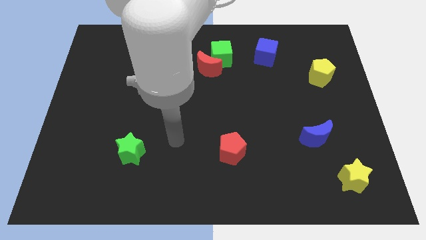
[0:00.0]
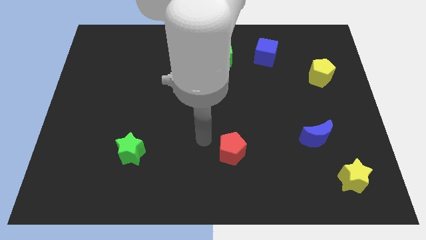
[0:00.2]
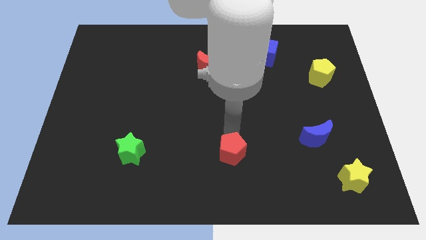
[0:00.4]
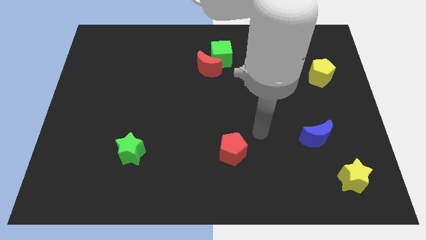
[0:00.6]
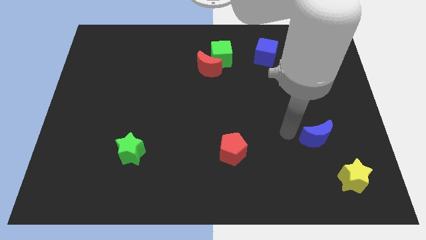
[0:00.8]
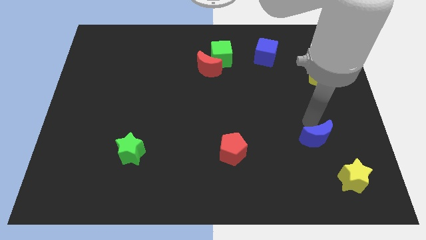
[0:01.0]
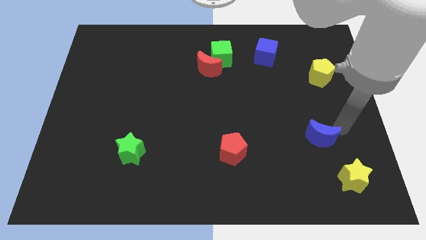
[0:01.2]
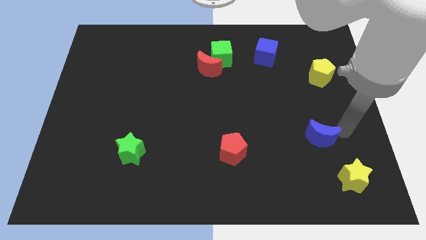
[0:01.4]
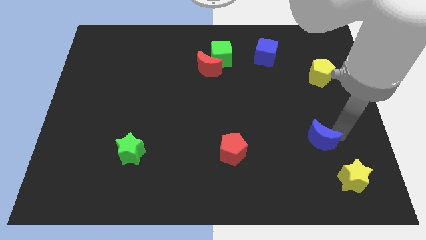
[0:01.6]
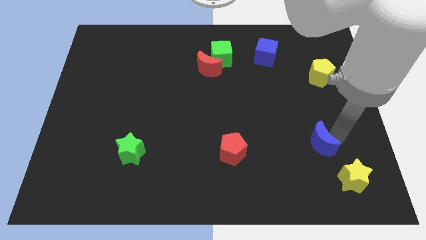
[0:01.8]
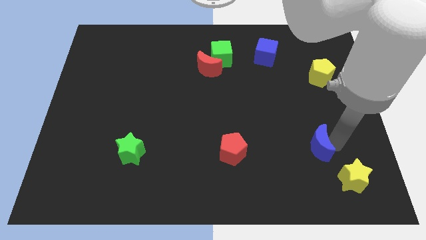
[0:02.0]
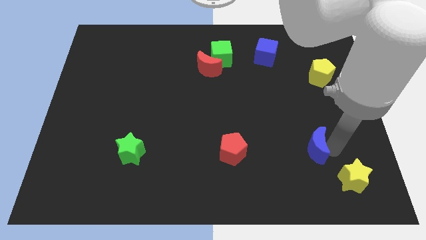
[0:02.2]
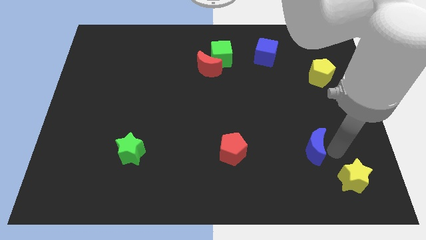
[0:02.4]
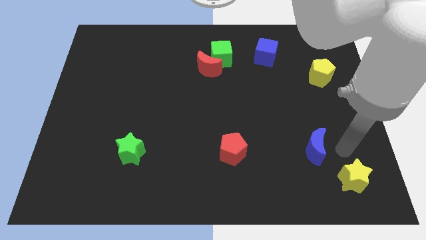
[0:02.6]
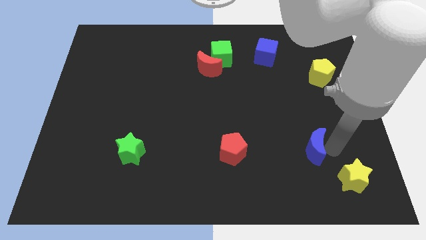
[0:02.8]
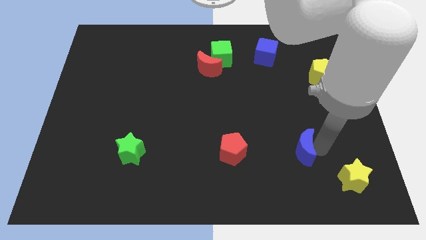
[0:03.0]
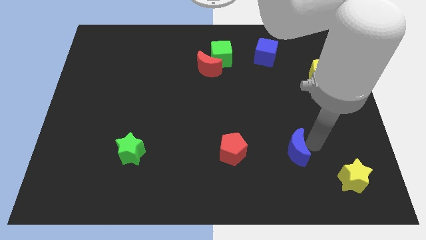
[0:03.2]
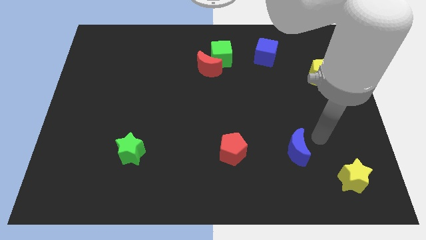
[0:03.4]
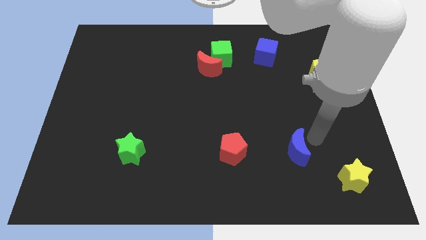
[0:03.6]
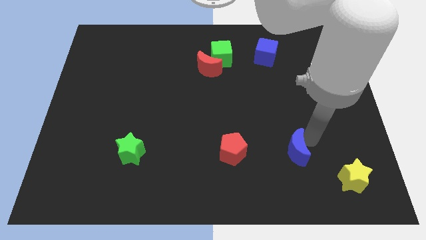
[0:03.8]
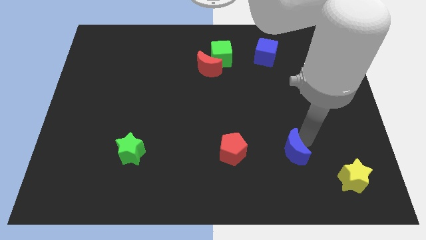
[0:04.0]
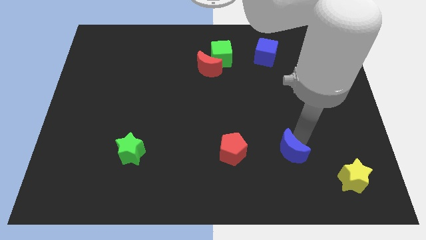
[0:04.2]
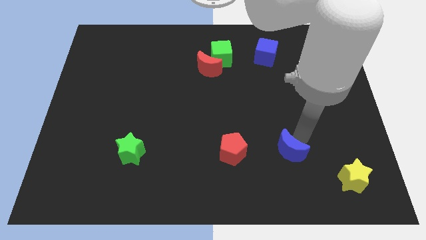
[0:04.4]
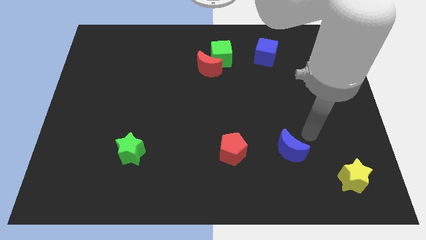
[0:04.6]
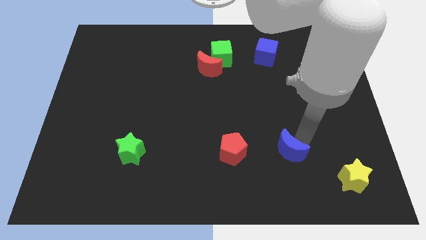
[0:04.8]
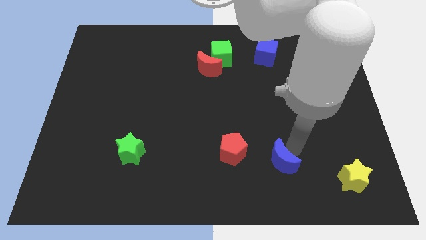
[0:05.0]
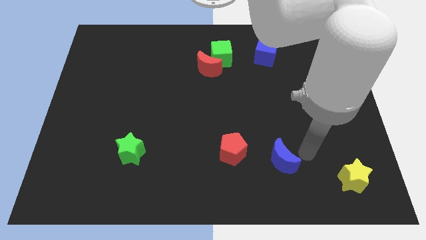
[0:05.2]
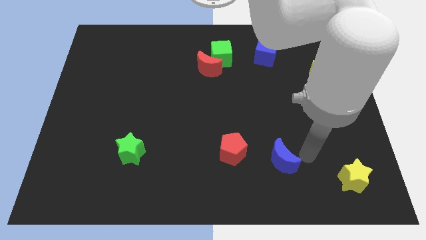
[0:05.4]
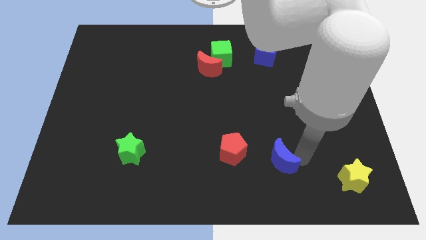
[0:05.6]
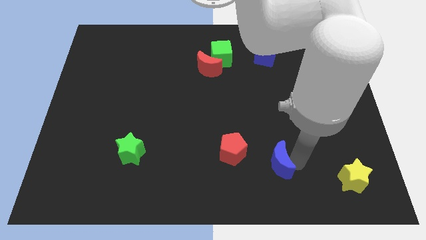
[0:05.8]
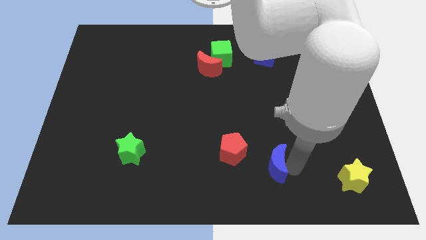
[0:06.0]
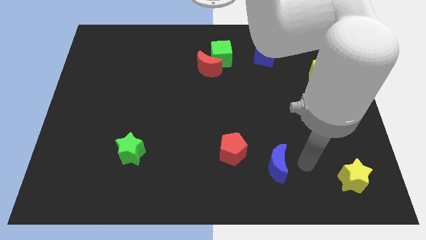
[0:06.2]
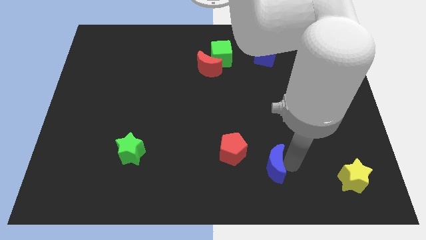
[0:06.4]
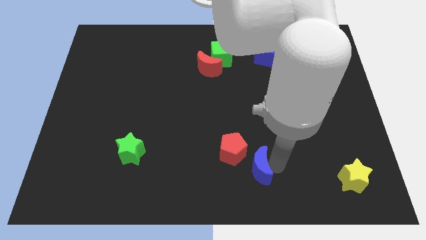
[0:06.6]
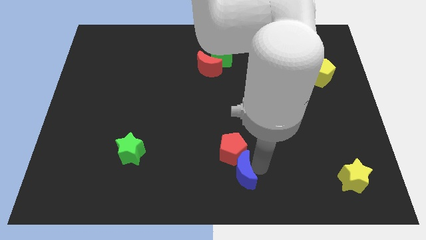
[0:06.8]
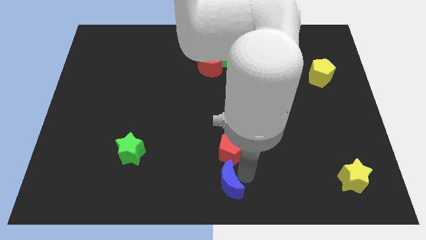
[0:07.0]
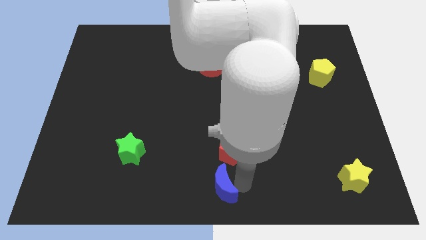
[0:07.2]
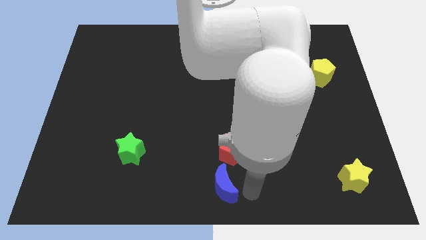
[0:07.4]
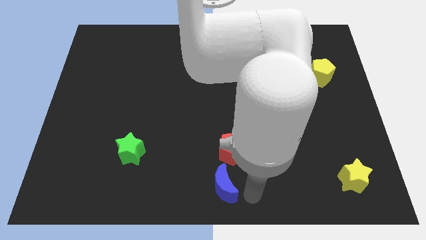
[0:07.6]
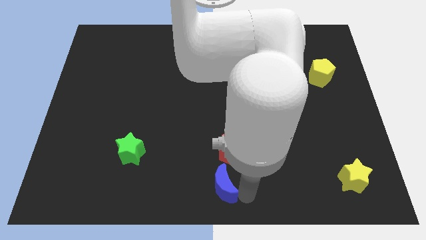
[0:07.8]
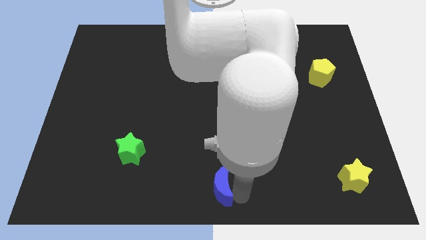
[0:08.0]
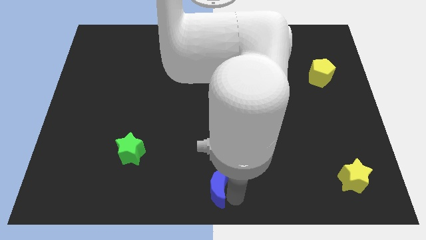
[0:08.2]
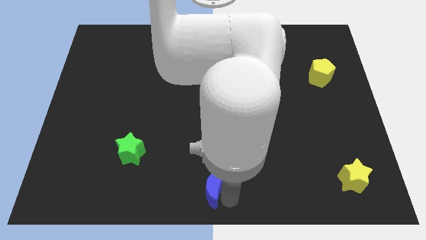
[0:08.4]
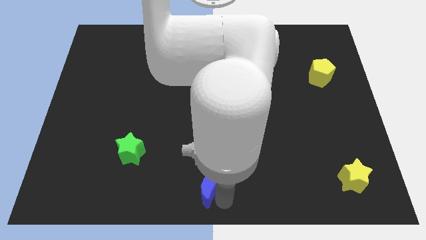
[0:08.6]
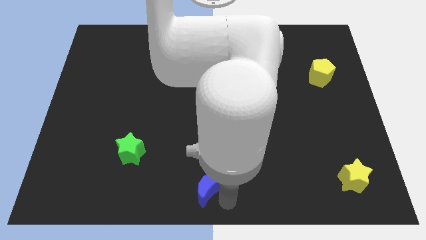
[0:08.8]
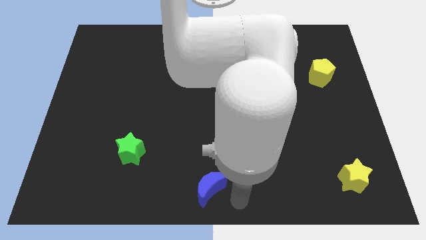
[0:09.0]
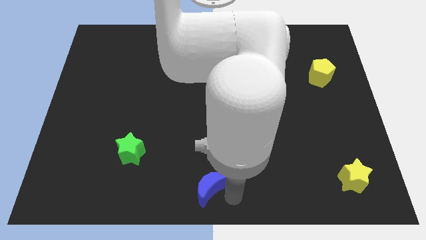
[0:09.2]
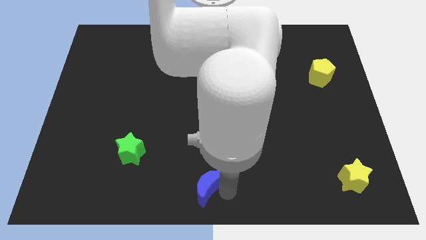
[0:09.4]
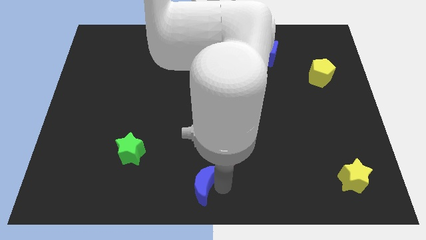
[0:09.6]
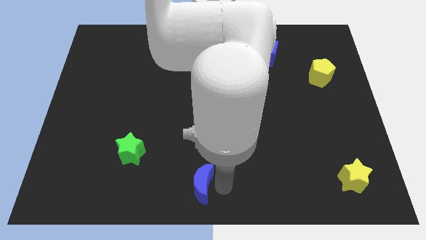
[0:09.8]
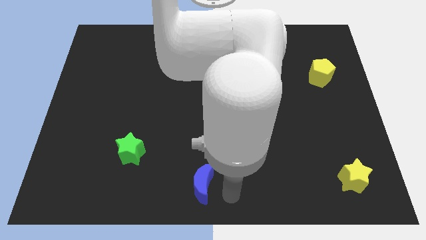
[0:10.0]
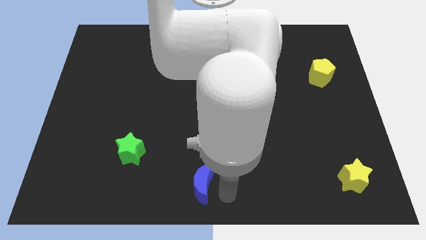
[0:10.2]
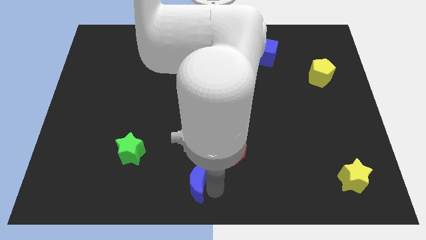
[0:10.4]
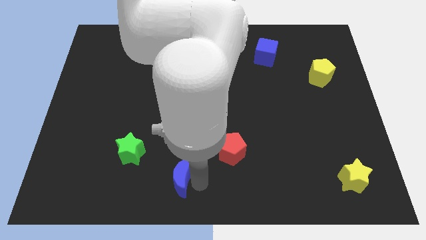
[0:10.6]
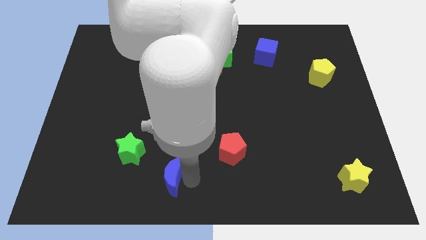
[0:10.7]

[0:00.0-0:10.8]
put the blue moon to the bottom right of the green star

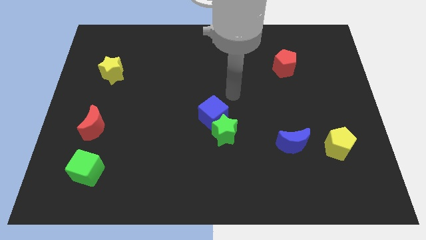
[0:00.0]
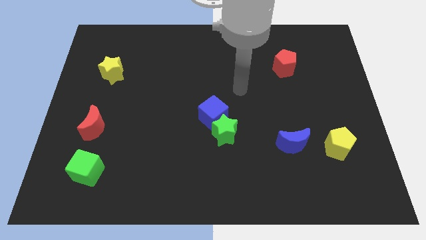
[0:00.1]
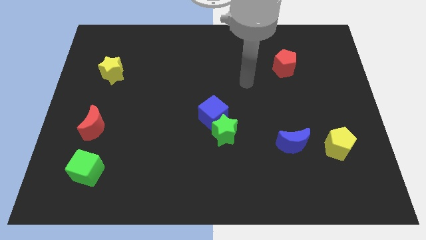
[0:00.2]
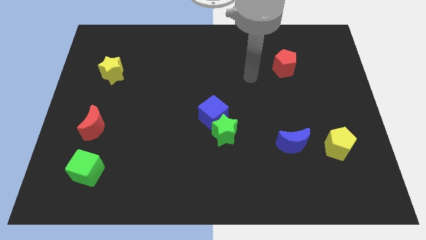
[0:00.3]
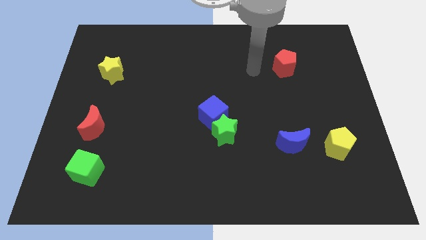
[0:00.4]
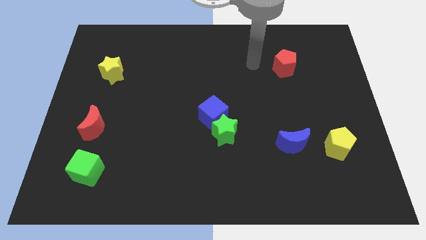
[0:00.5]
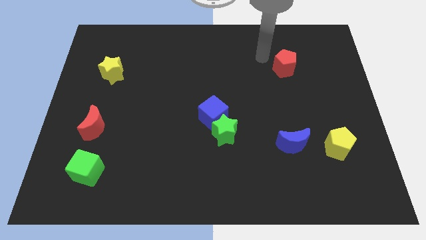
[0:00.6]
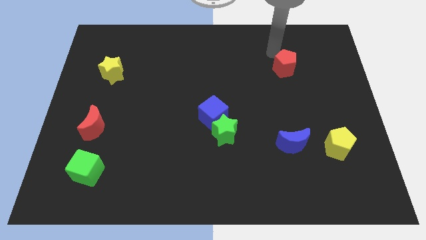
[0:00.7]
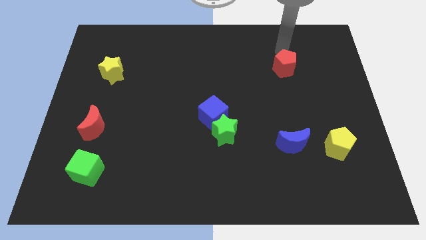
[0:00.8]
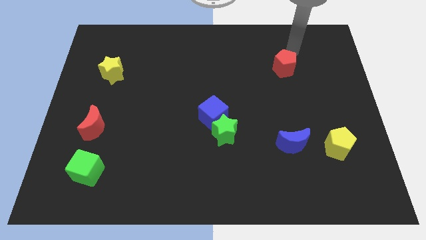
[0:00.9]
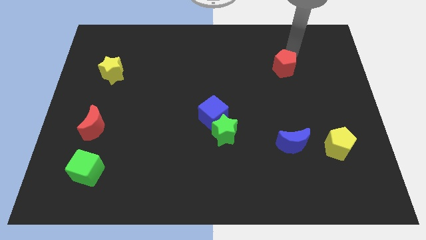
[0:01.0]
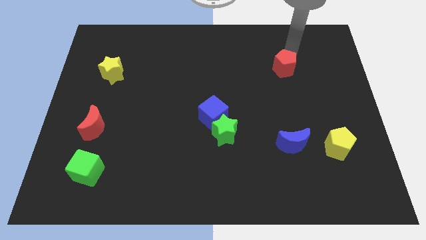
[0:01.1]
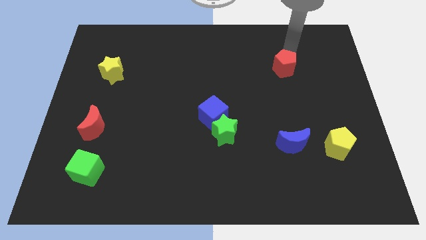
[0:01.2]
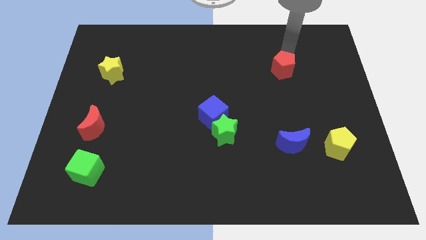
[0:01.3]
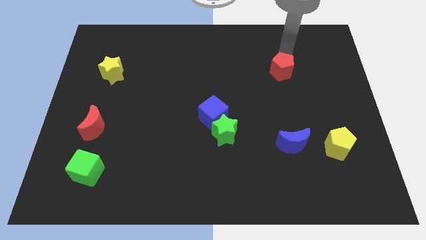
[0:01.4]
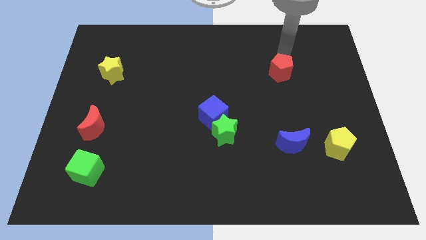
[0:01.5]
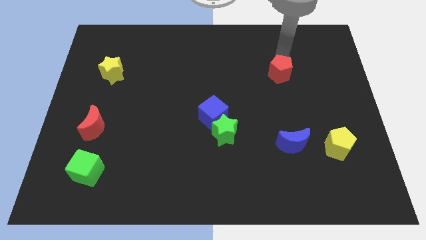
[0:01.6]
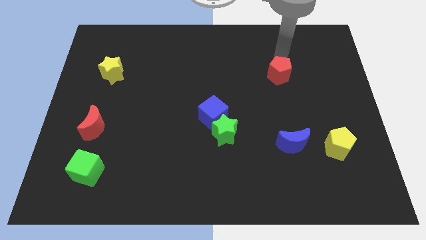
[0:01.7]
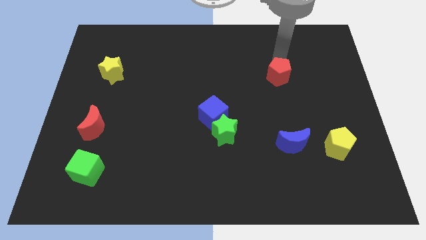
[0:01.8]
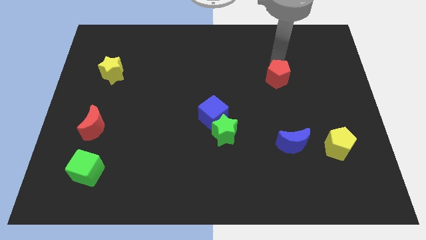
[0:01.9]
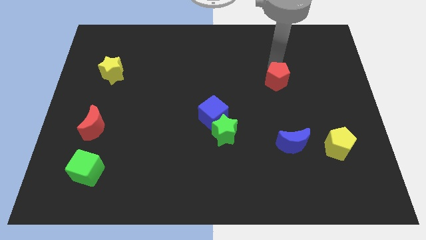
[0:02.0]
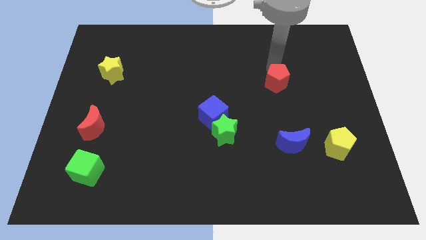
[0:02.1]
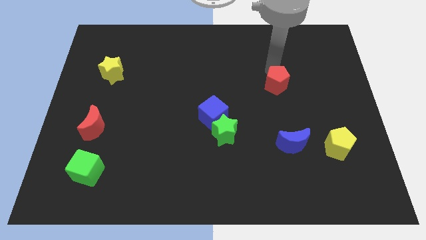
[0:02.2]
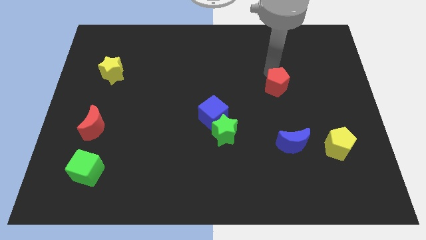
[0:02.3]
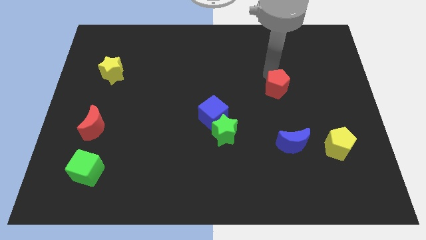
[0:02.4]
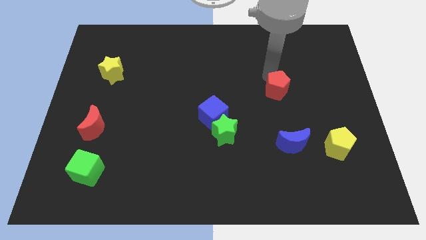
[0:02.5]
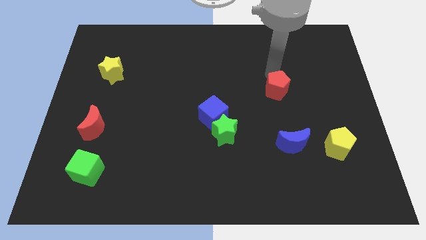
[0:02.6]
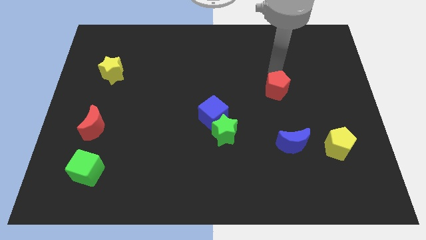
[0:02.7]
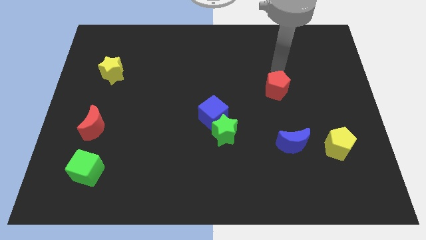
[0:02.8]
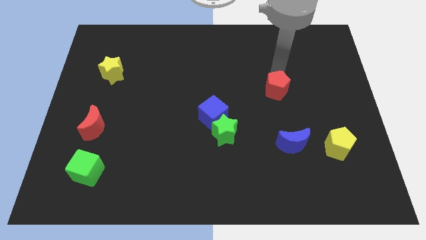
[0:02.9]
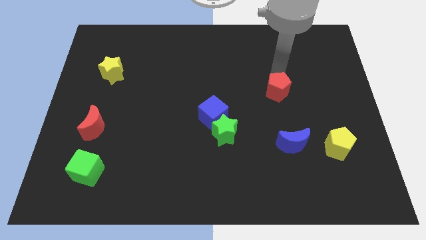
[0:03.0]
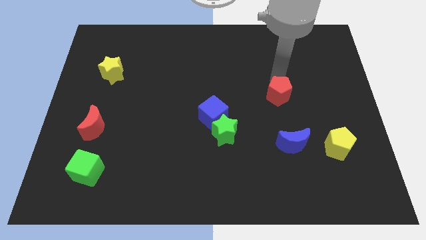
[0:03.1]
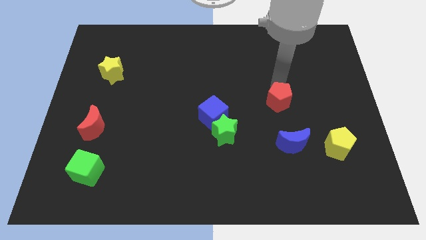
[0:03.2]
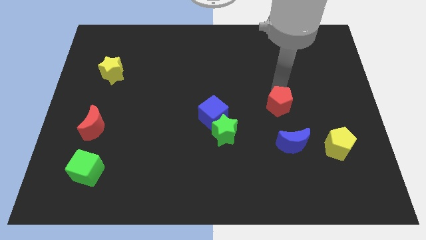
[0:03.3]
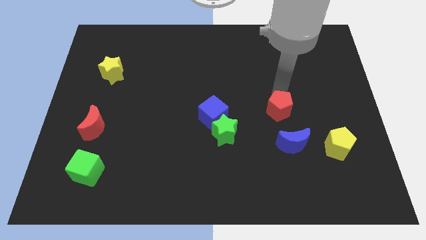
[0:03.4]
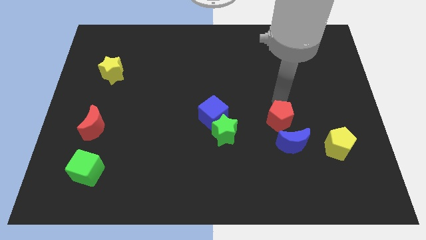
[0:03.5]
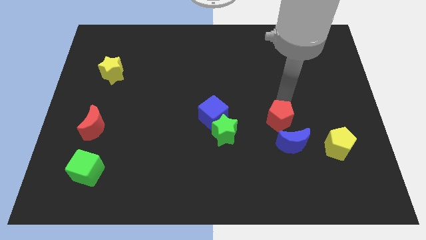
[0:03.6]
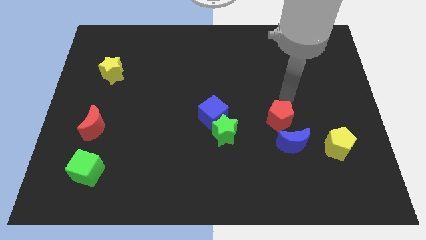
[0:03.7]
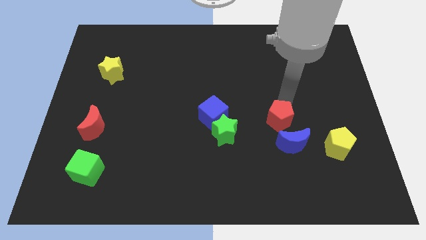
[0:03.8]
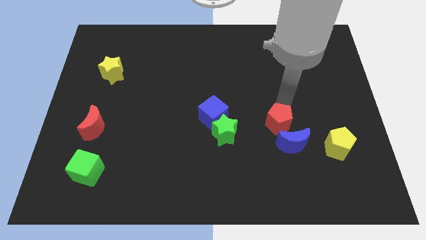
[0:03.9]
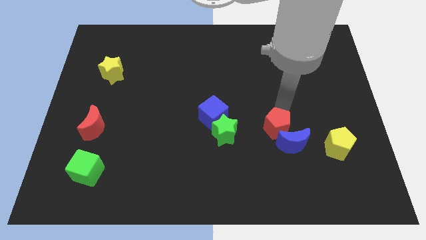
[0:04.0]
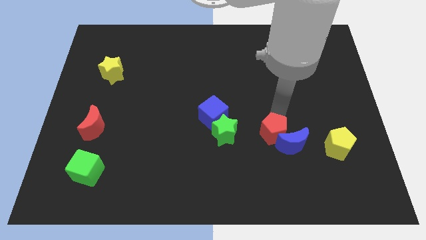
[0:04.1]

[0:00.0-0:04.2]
slide the red pentagon to the left of the yellow pentagon
